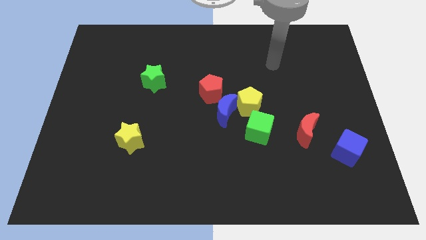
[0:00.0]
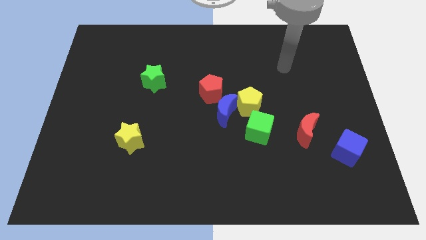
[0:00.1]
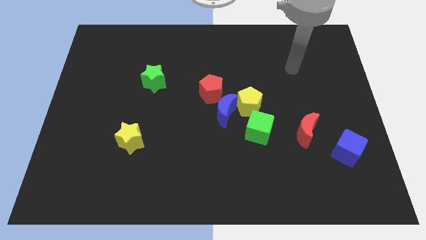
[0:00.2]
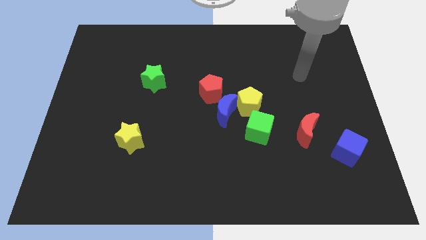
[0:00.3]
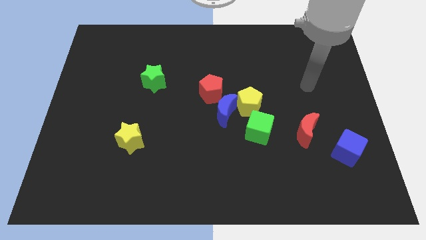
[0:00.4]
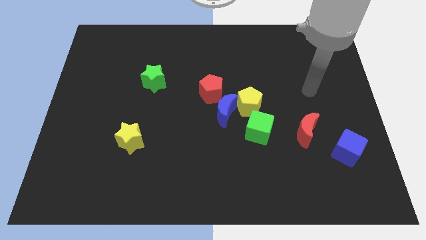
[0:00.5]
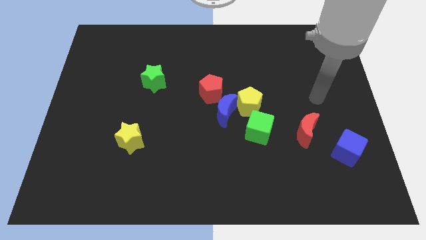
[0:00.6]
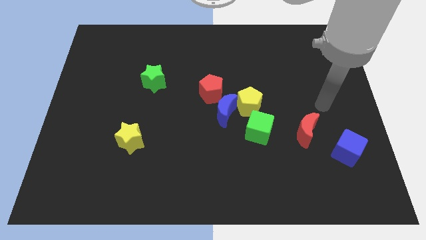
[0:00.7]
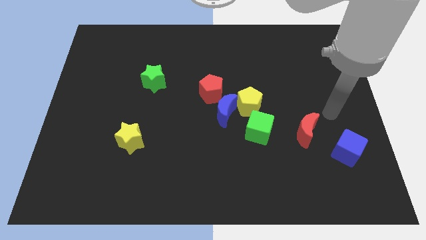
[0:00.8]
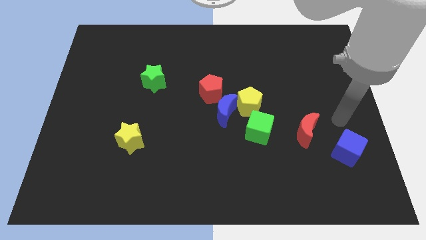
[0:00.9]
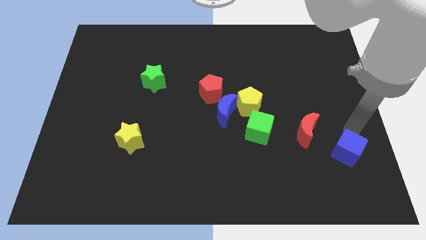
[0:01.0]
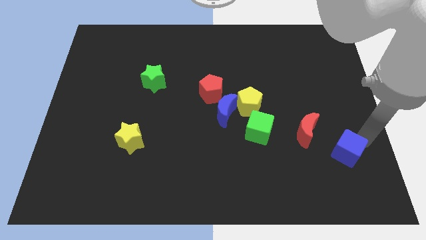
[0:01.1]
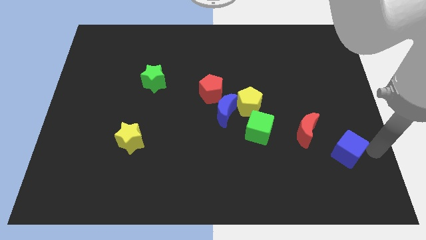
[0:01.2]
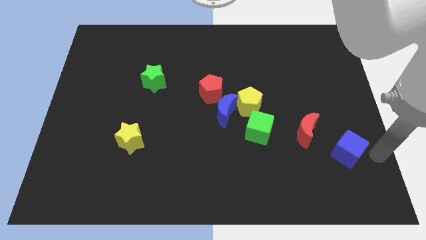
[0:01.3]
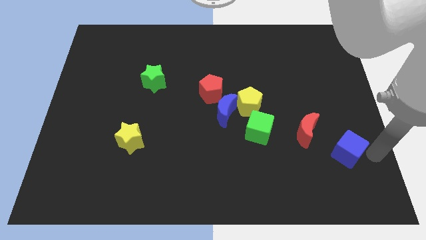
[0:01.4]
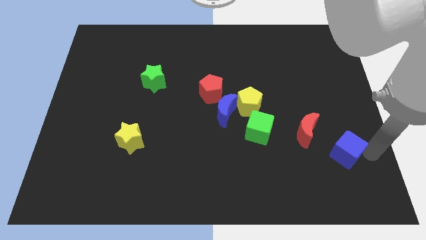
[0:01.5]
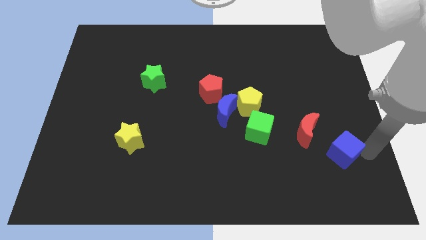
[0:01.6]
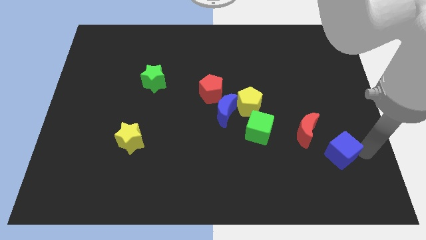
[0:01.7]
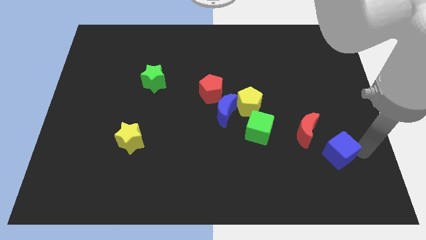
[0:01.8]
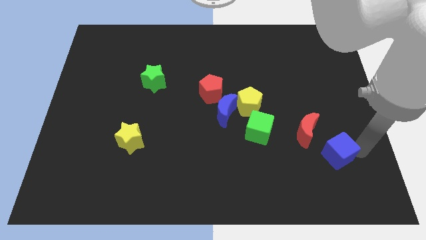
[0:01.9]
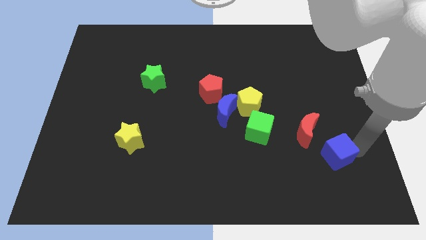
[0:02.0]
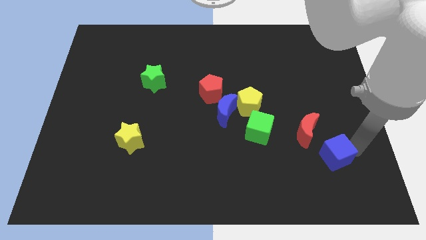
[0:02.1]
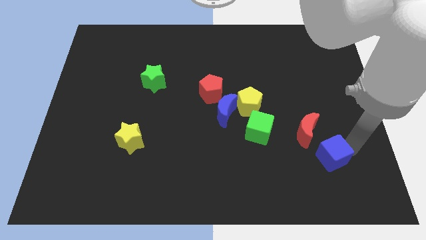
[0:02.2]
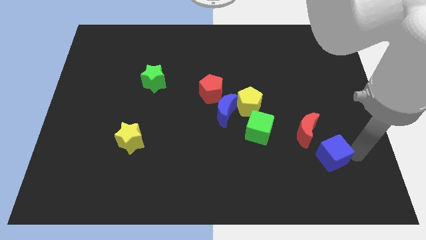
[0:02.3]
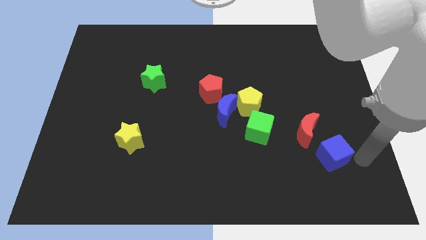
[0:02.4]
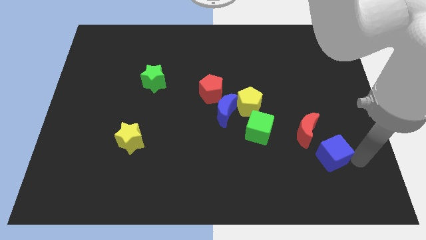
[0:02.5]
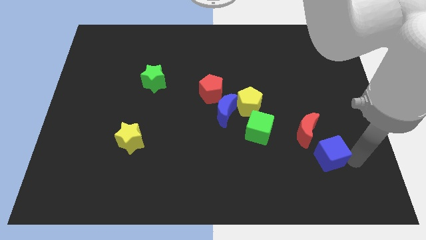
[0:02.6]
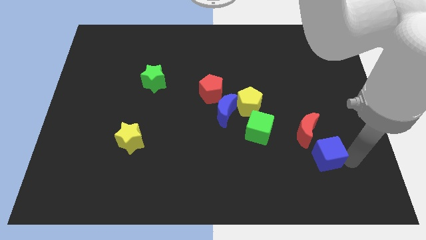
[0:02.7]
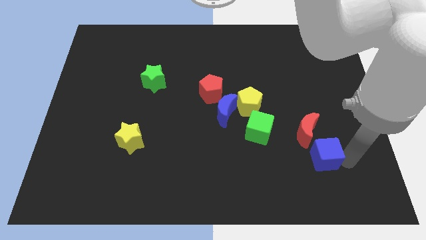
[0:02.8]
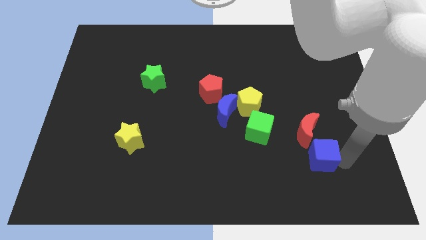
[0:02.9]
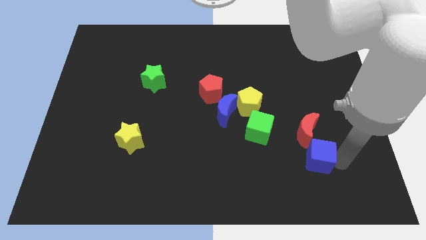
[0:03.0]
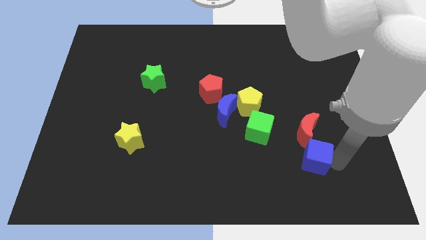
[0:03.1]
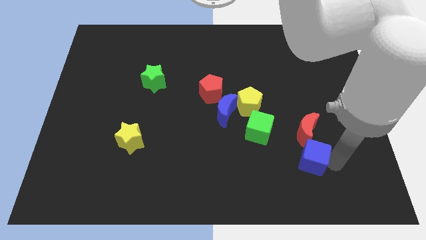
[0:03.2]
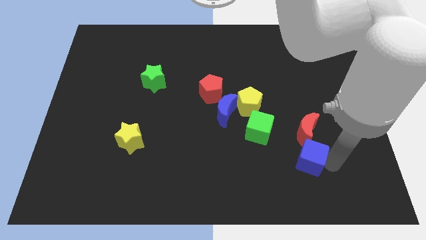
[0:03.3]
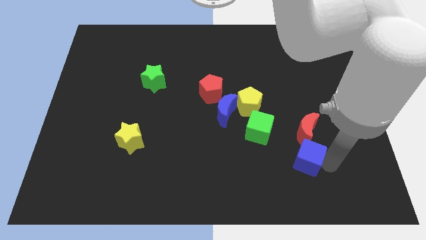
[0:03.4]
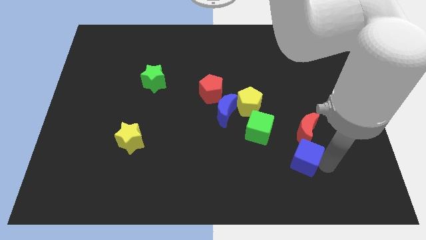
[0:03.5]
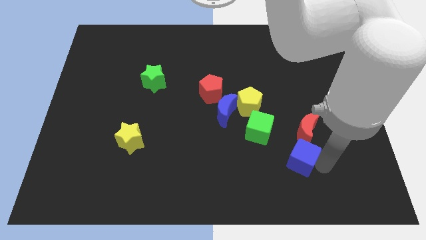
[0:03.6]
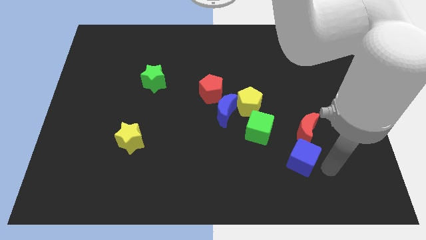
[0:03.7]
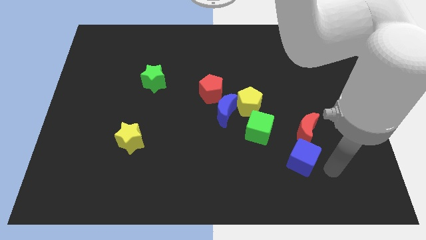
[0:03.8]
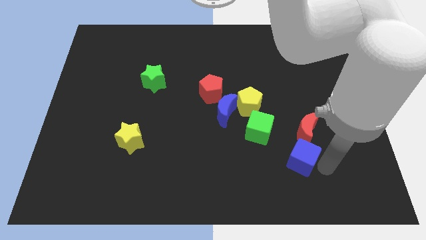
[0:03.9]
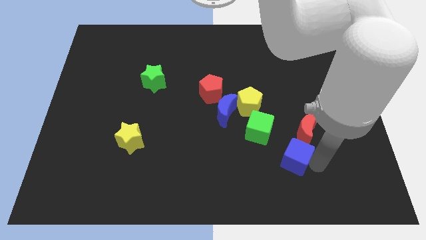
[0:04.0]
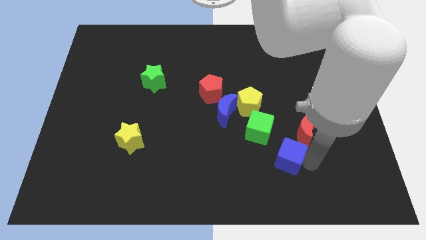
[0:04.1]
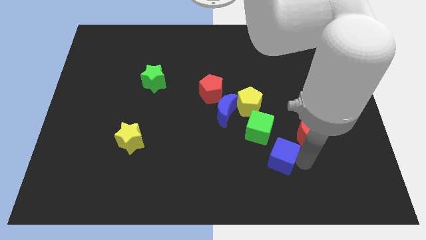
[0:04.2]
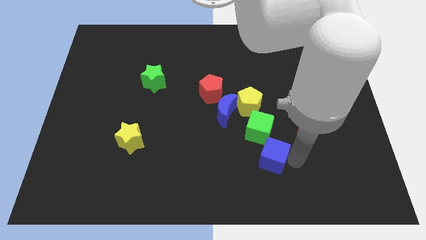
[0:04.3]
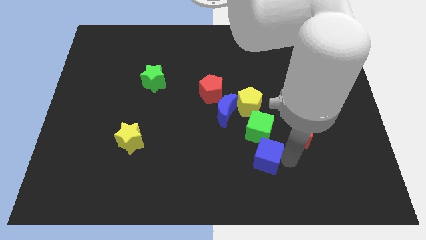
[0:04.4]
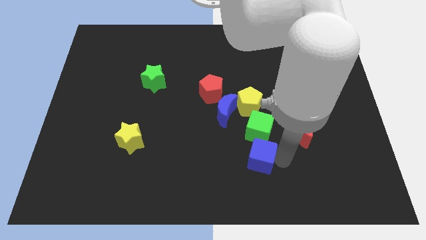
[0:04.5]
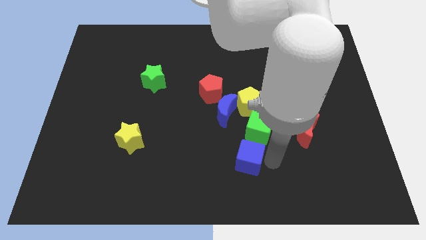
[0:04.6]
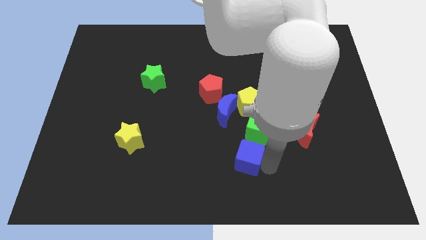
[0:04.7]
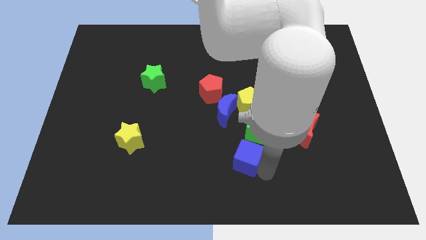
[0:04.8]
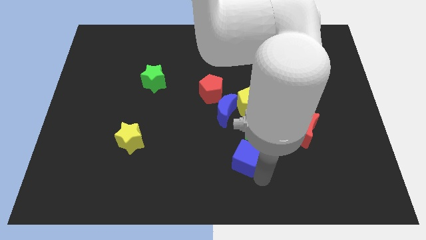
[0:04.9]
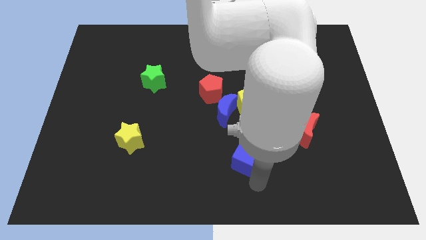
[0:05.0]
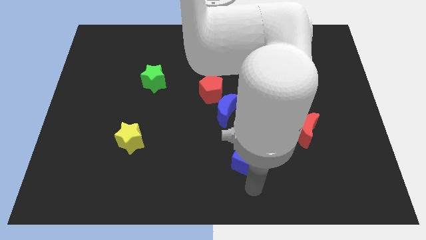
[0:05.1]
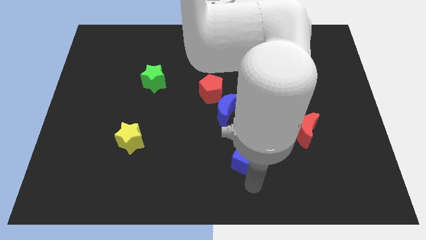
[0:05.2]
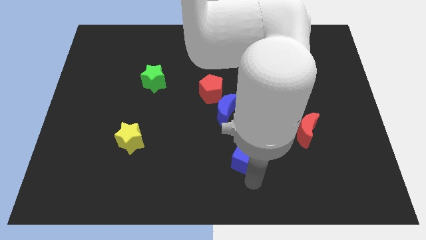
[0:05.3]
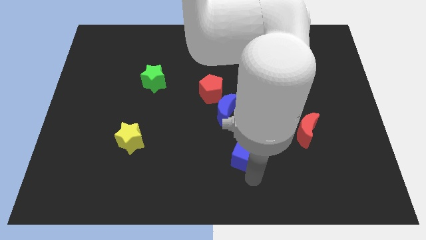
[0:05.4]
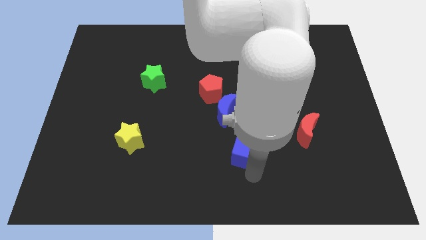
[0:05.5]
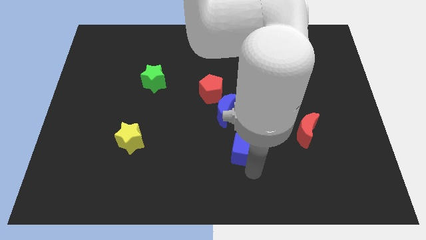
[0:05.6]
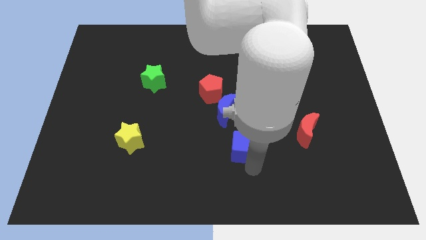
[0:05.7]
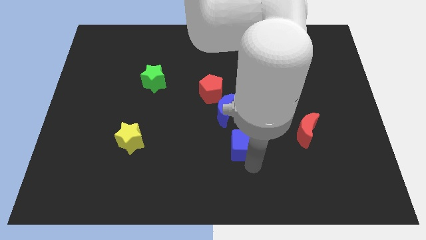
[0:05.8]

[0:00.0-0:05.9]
put the blue cube left of the red moon

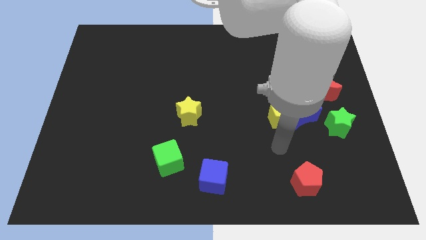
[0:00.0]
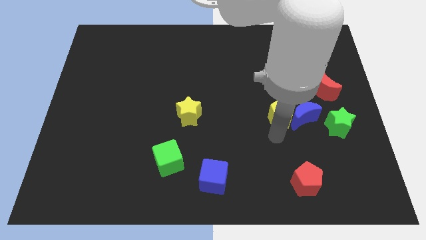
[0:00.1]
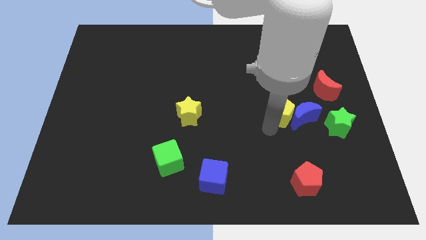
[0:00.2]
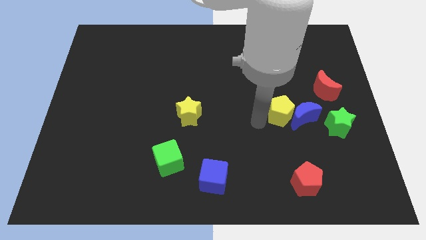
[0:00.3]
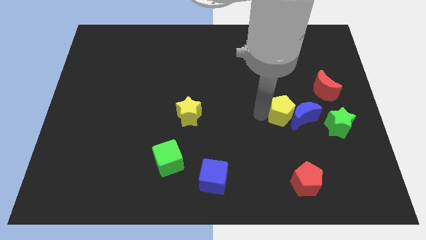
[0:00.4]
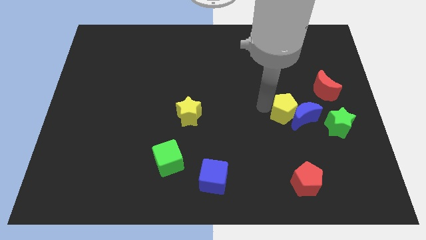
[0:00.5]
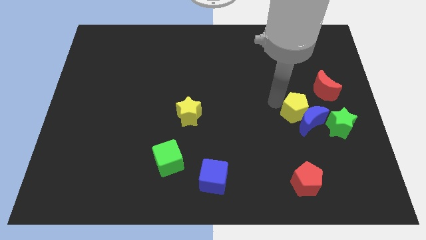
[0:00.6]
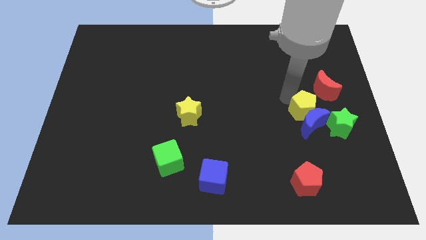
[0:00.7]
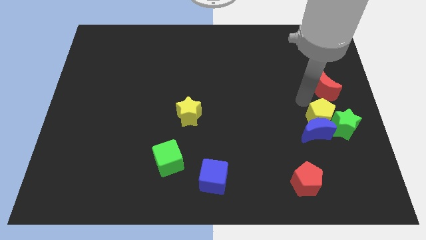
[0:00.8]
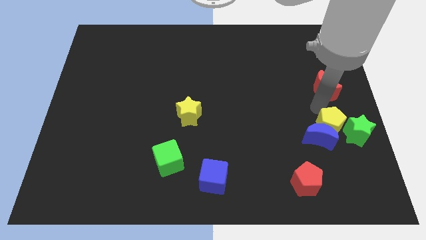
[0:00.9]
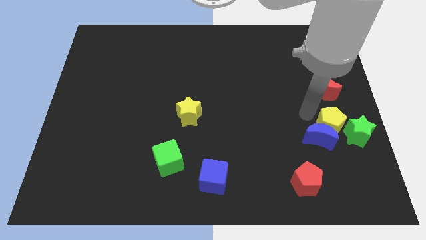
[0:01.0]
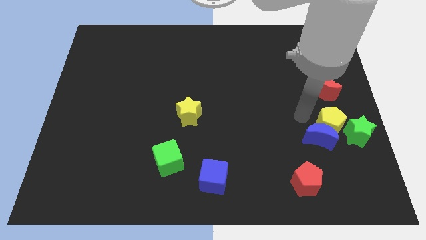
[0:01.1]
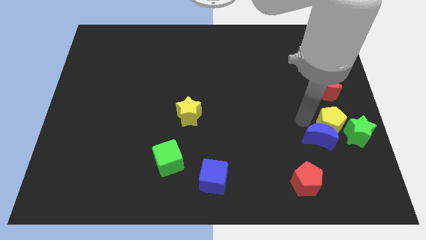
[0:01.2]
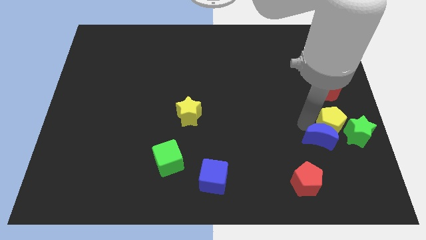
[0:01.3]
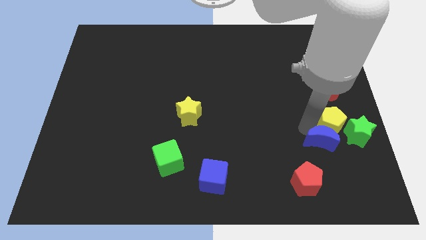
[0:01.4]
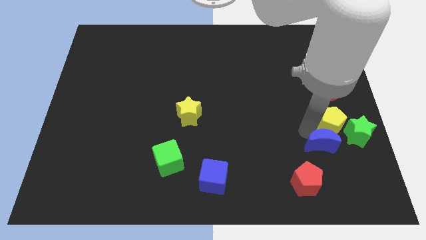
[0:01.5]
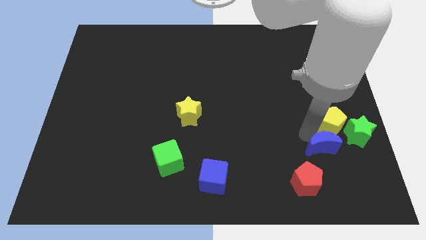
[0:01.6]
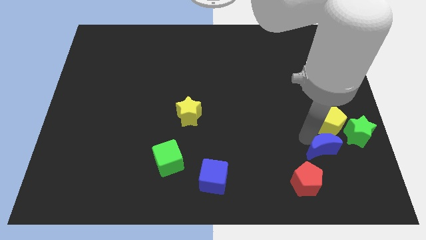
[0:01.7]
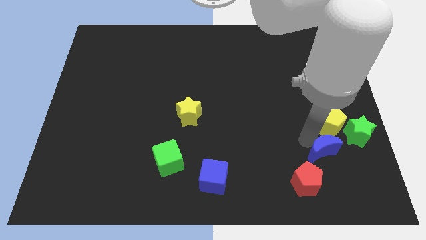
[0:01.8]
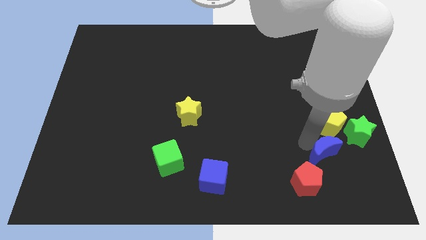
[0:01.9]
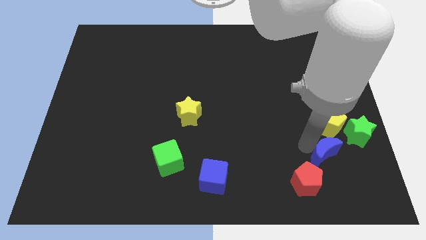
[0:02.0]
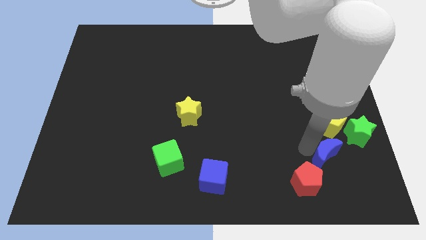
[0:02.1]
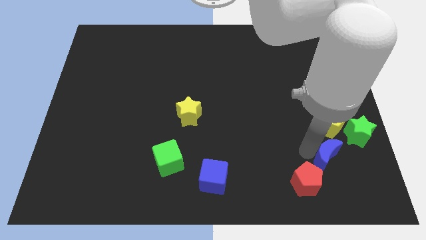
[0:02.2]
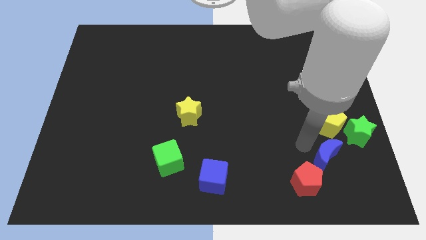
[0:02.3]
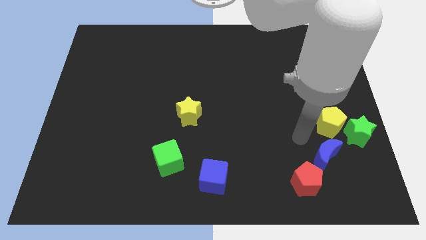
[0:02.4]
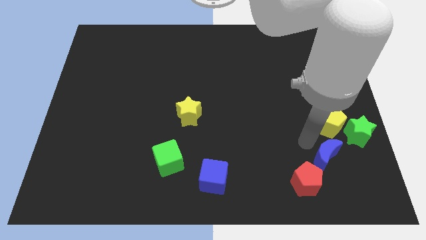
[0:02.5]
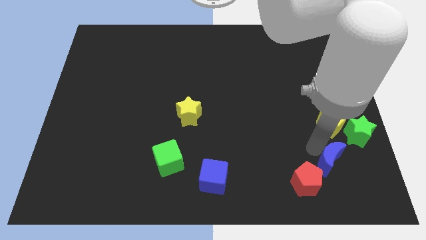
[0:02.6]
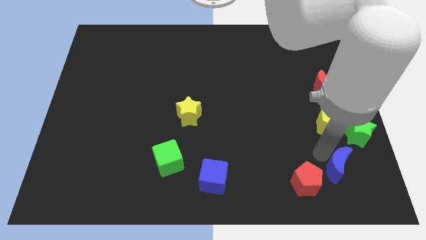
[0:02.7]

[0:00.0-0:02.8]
move the blue moon just right of the red pentagon
